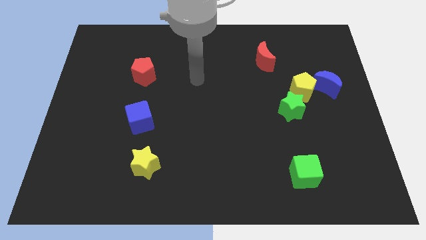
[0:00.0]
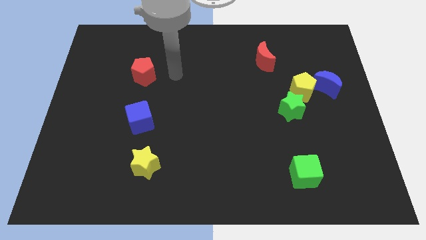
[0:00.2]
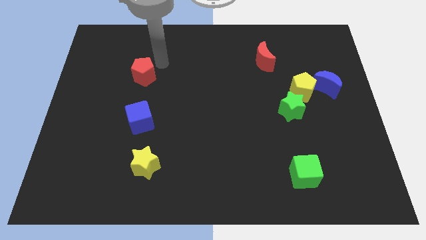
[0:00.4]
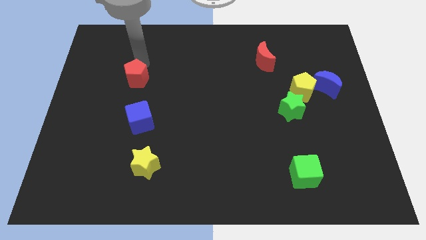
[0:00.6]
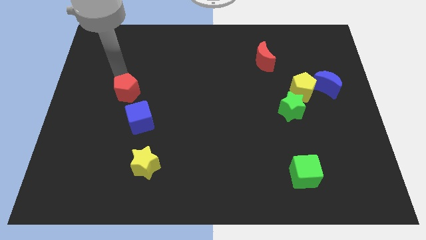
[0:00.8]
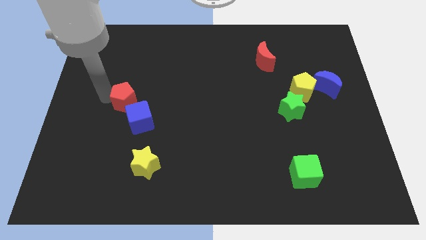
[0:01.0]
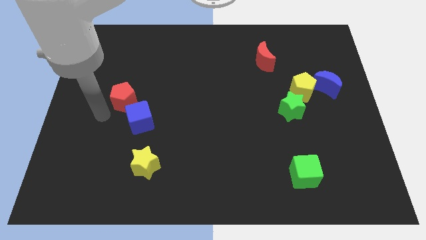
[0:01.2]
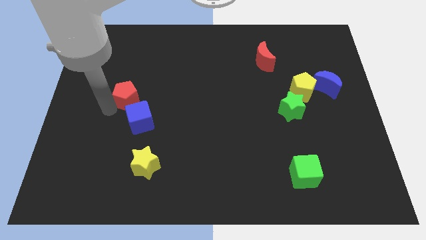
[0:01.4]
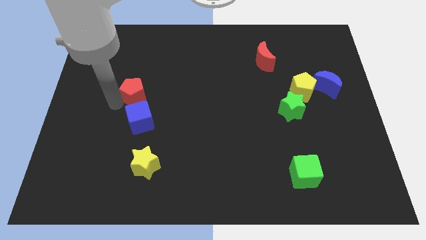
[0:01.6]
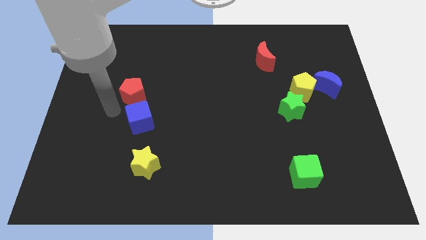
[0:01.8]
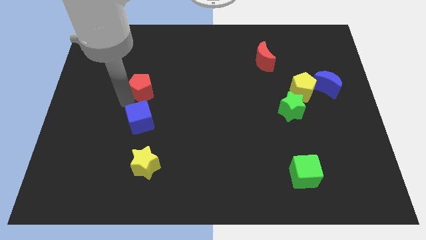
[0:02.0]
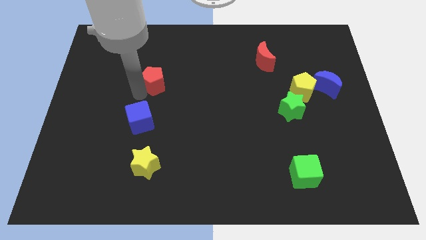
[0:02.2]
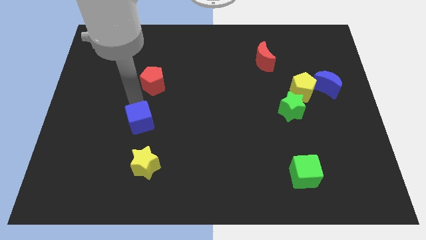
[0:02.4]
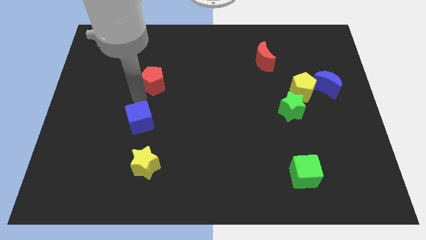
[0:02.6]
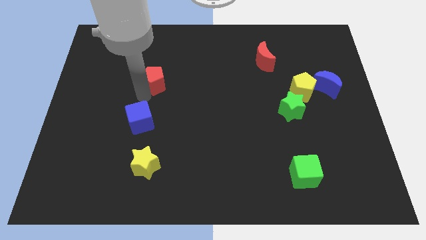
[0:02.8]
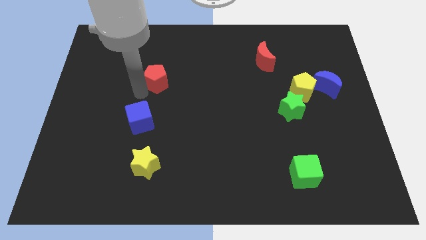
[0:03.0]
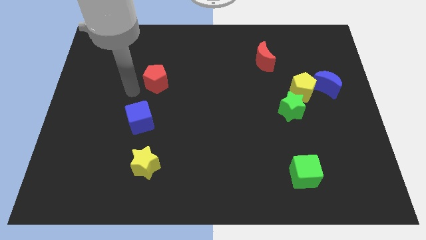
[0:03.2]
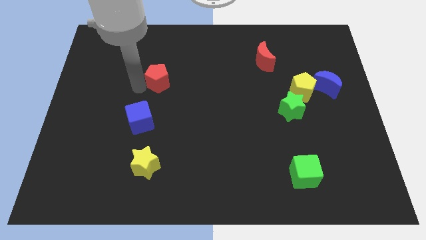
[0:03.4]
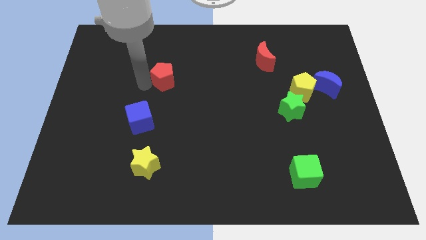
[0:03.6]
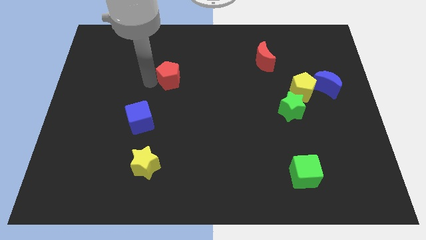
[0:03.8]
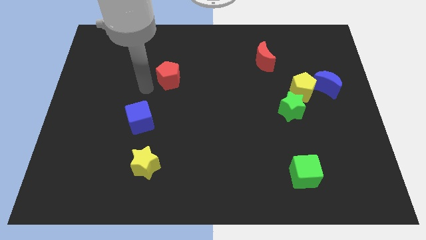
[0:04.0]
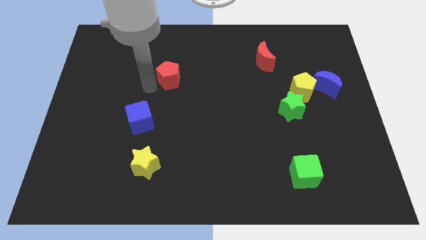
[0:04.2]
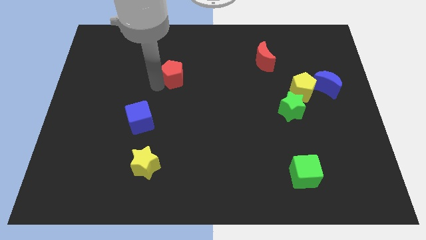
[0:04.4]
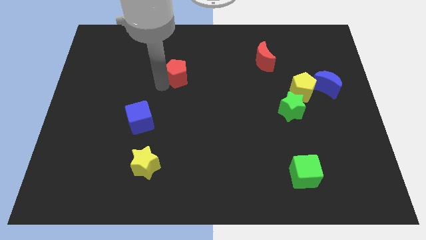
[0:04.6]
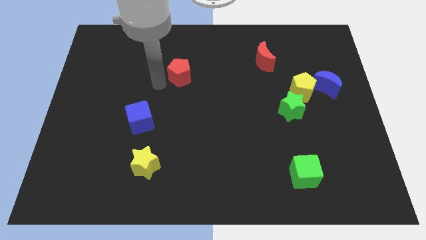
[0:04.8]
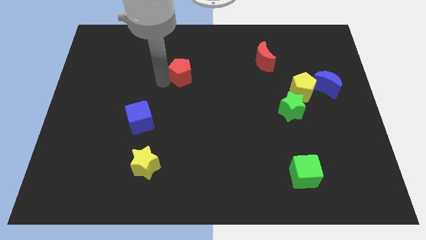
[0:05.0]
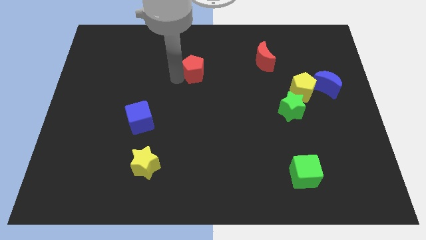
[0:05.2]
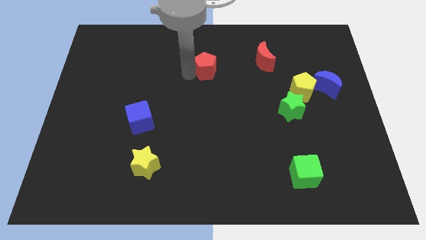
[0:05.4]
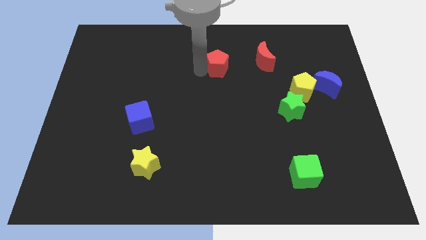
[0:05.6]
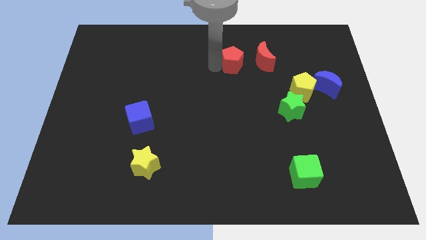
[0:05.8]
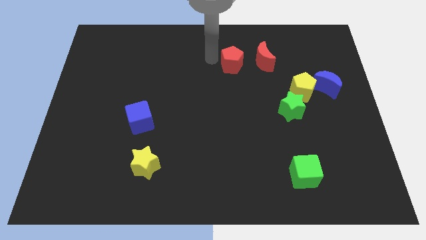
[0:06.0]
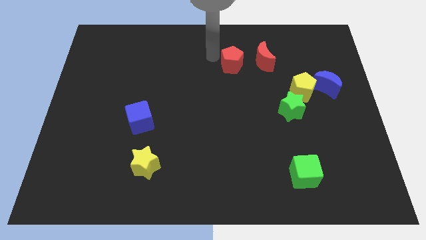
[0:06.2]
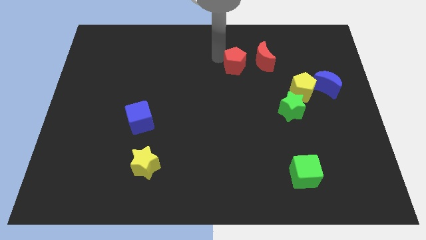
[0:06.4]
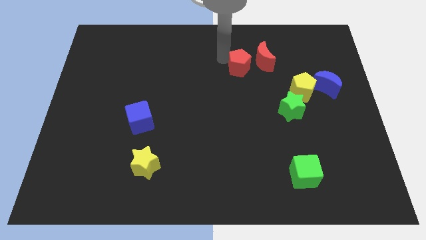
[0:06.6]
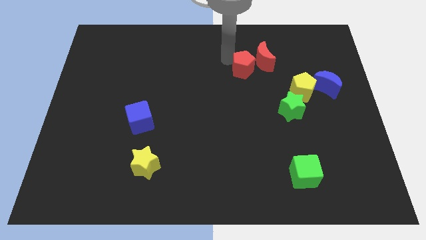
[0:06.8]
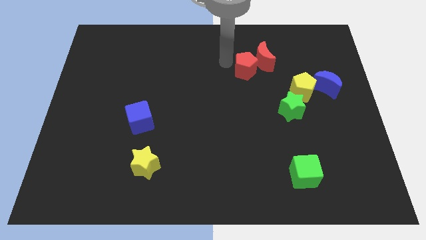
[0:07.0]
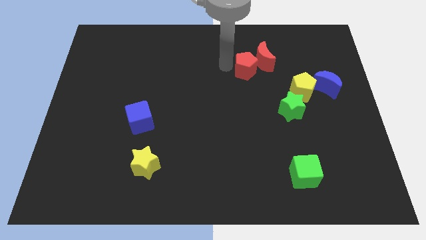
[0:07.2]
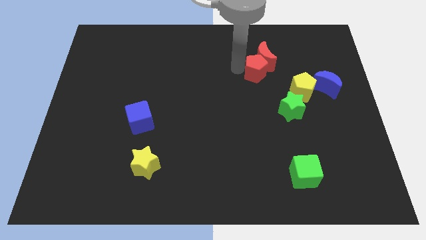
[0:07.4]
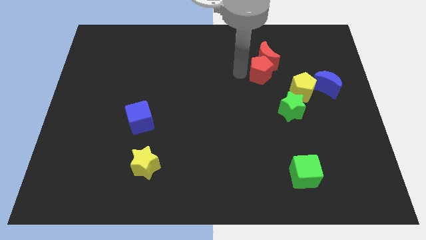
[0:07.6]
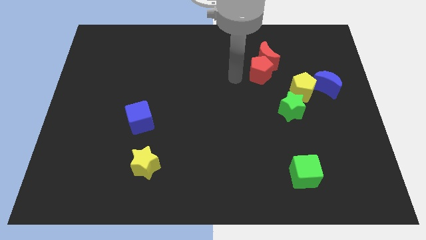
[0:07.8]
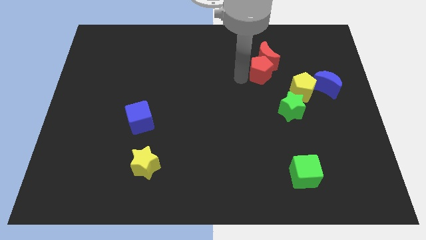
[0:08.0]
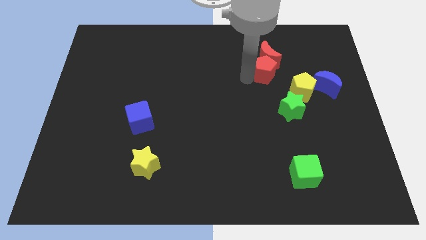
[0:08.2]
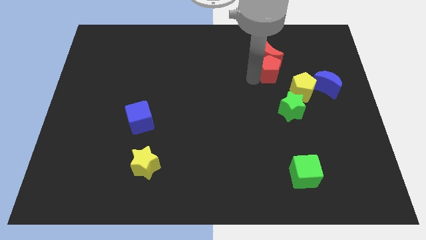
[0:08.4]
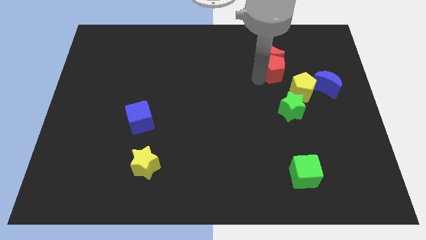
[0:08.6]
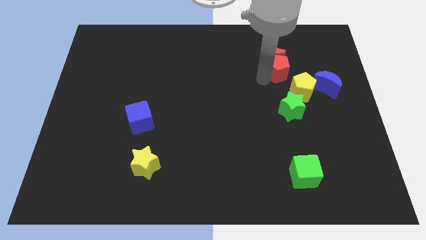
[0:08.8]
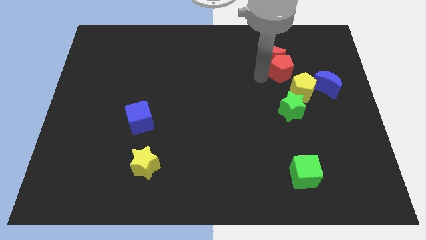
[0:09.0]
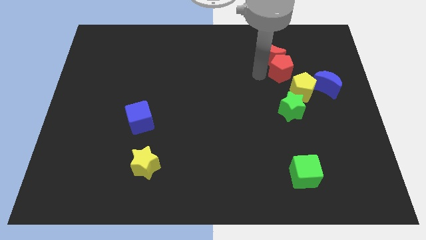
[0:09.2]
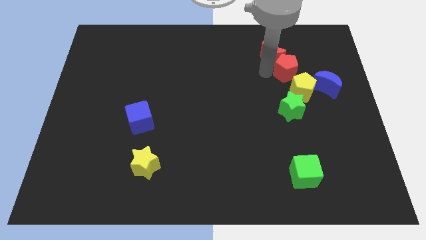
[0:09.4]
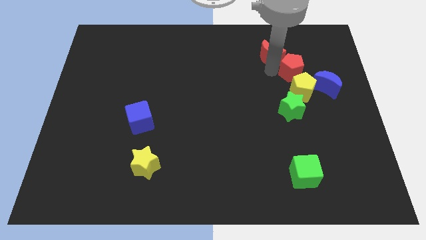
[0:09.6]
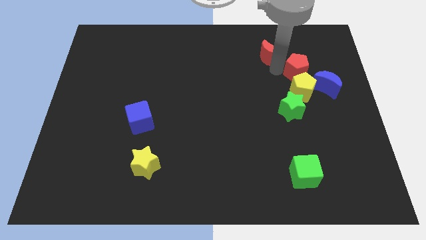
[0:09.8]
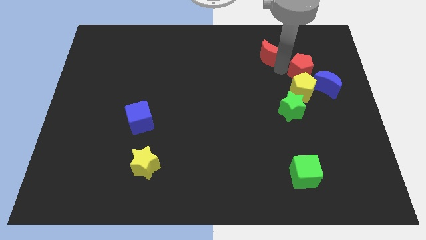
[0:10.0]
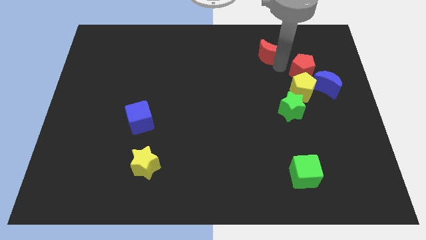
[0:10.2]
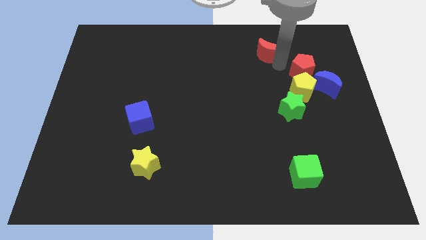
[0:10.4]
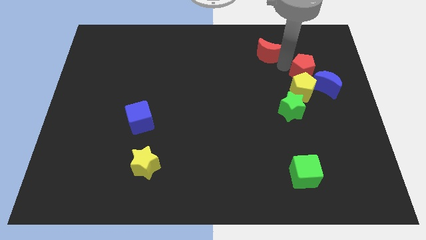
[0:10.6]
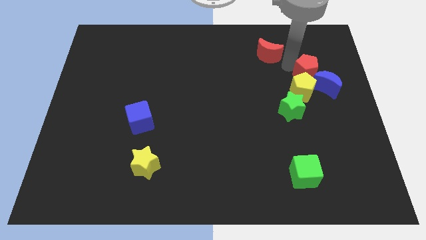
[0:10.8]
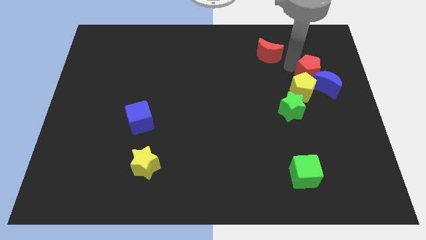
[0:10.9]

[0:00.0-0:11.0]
slide the red pentagon to the blue moon

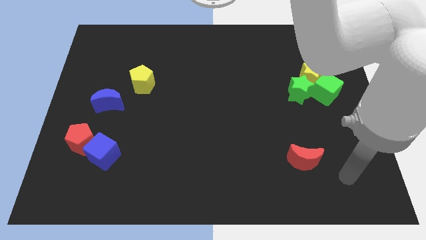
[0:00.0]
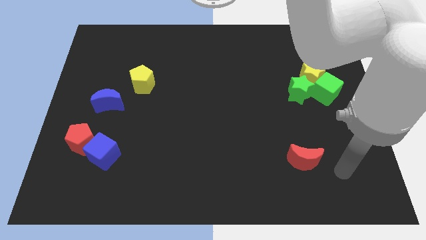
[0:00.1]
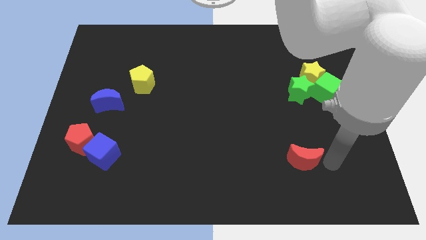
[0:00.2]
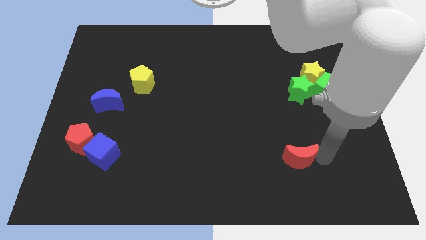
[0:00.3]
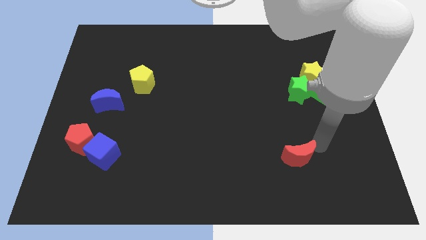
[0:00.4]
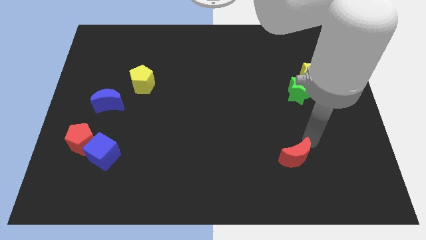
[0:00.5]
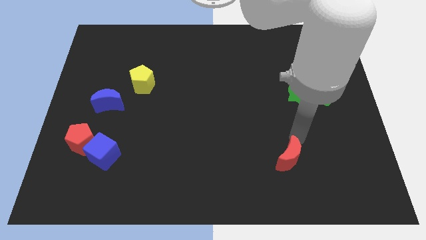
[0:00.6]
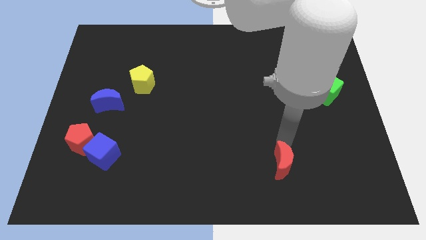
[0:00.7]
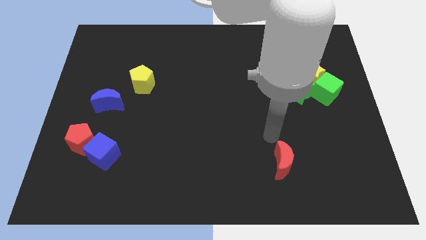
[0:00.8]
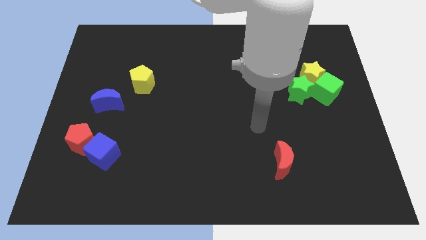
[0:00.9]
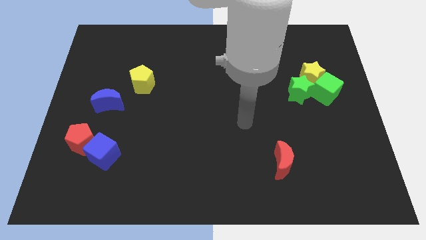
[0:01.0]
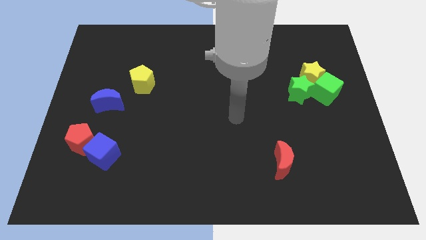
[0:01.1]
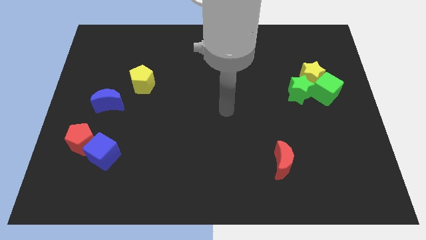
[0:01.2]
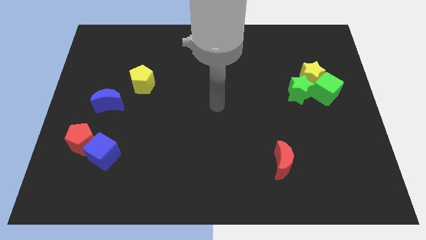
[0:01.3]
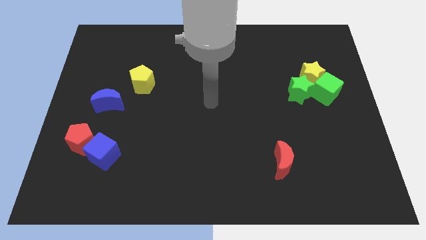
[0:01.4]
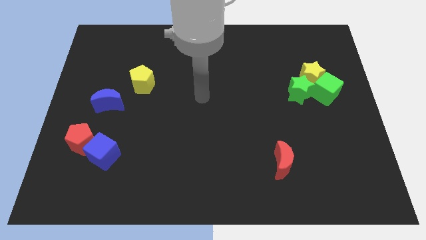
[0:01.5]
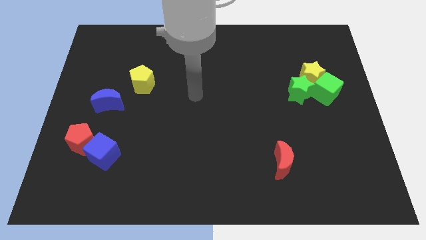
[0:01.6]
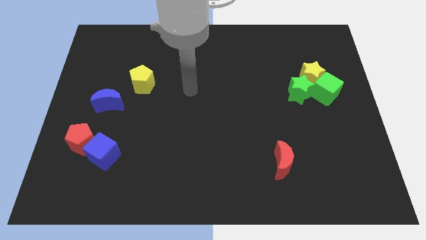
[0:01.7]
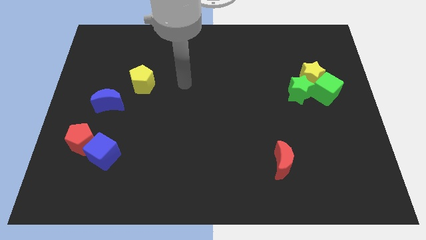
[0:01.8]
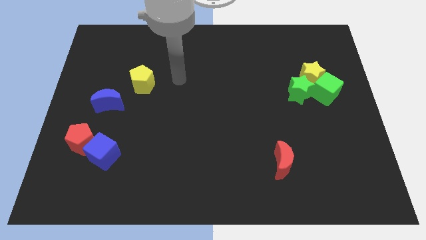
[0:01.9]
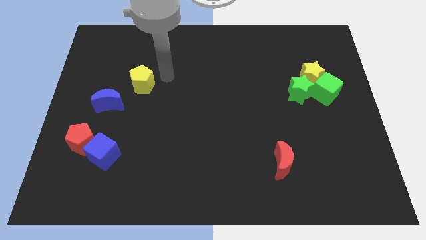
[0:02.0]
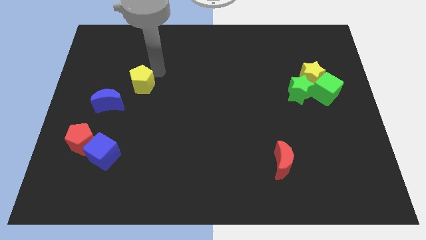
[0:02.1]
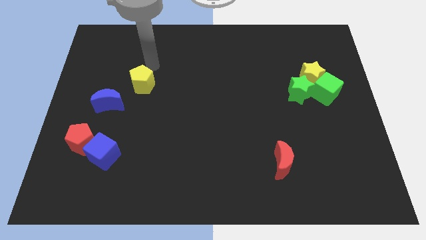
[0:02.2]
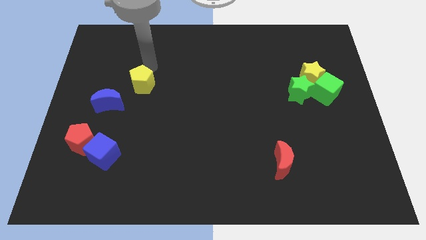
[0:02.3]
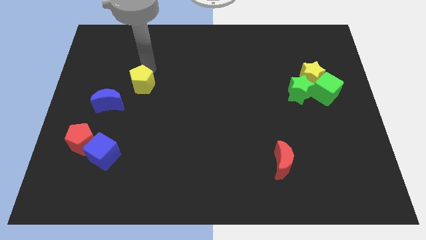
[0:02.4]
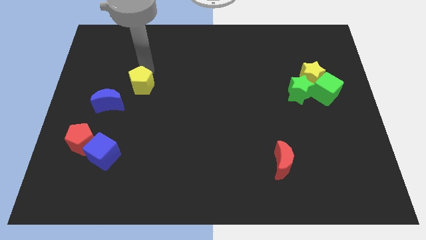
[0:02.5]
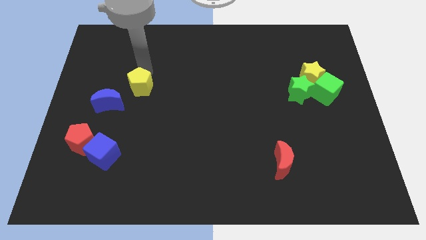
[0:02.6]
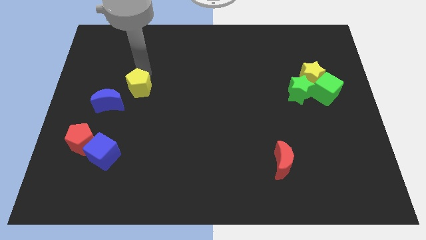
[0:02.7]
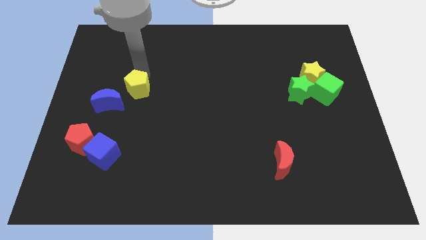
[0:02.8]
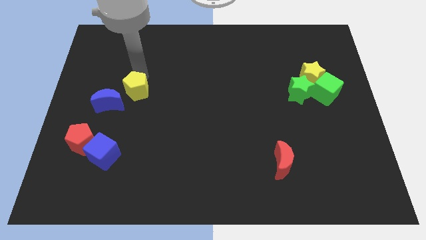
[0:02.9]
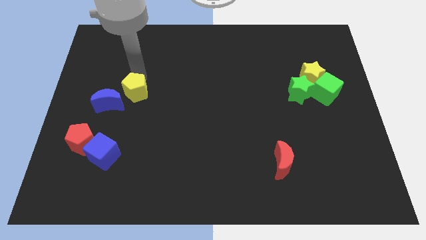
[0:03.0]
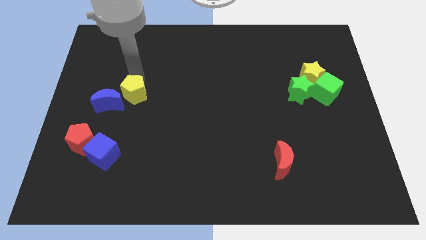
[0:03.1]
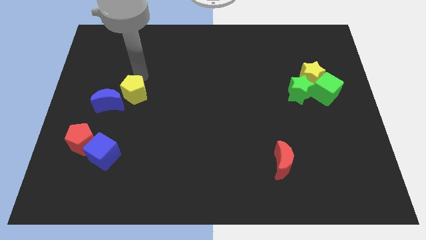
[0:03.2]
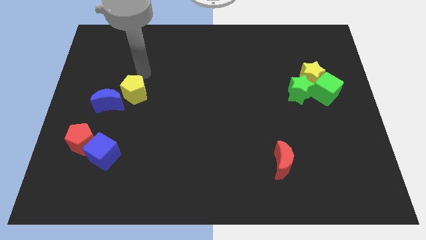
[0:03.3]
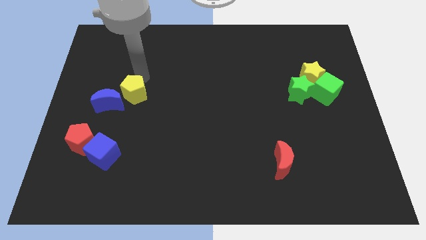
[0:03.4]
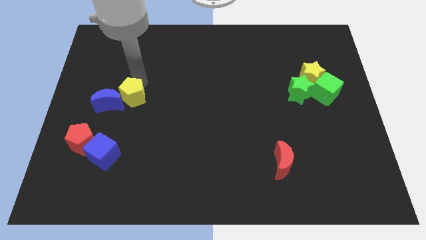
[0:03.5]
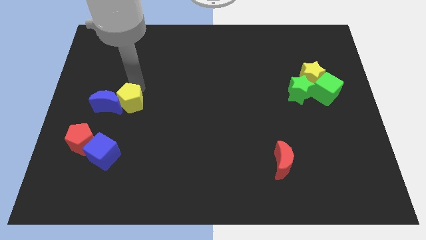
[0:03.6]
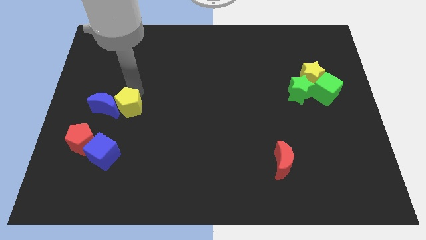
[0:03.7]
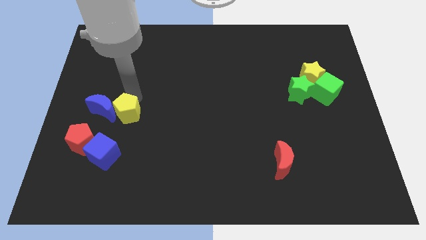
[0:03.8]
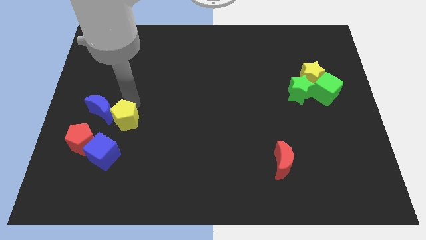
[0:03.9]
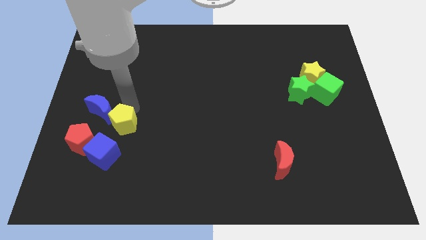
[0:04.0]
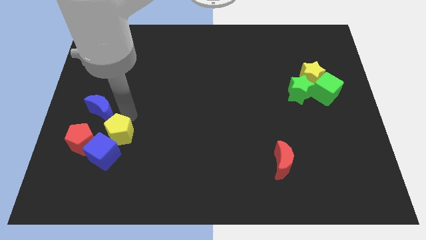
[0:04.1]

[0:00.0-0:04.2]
push the yellow pentagon towards the blue cube
